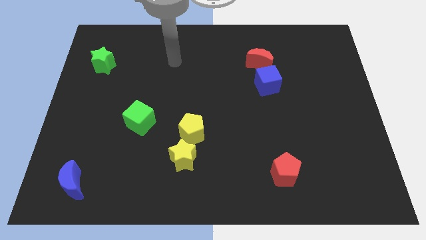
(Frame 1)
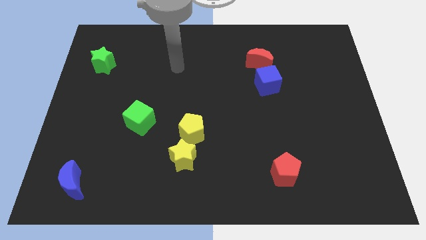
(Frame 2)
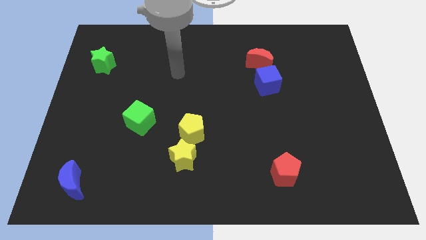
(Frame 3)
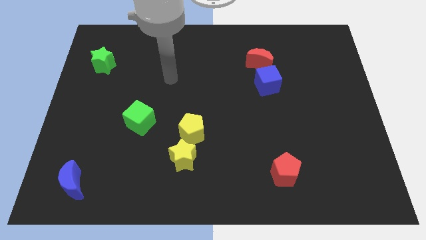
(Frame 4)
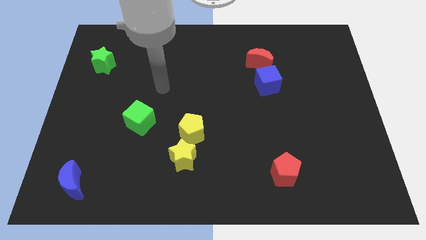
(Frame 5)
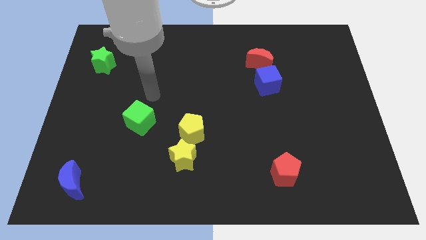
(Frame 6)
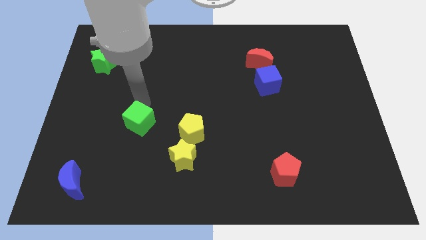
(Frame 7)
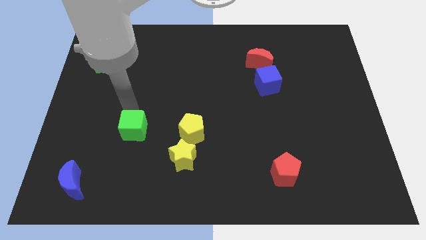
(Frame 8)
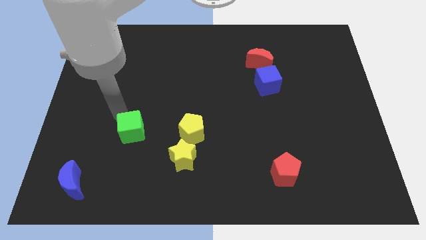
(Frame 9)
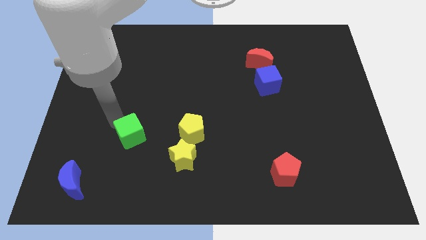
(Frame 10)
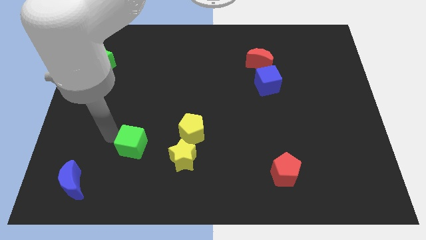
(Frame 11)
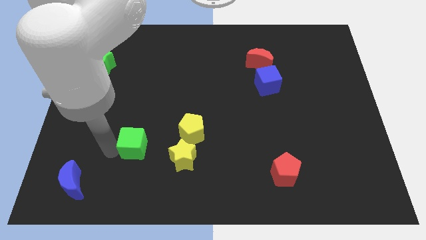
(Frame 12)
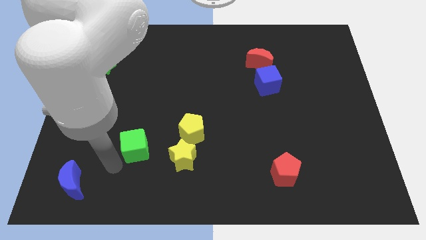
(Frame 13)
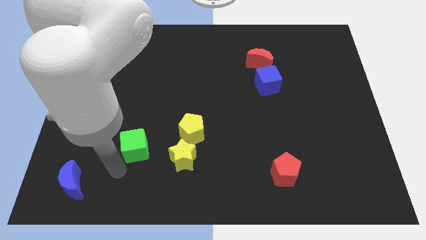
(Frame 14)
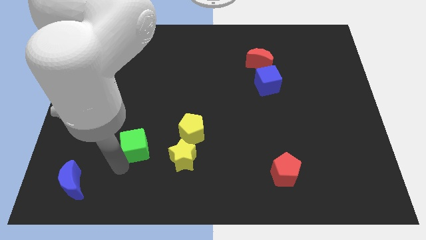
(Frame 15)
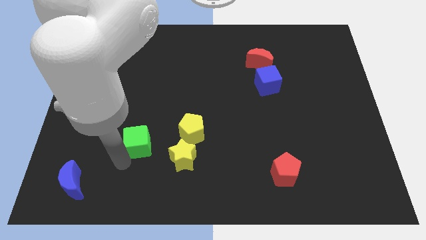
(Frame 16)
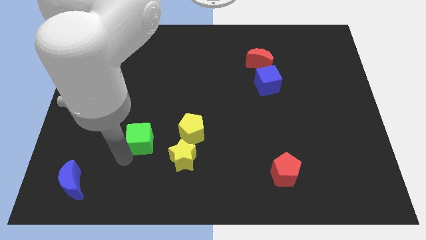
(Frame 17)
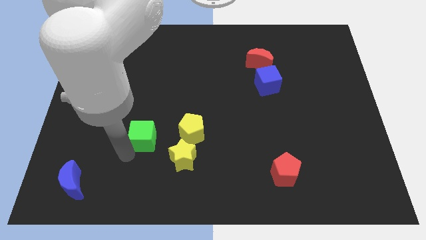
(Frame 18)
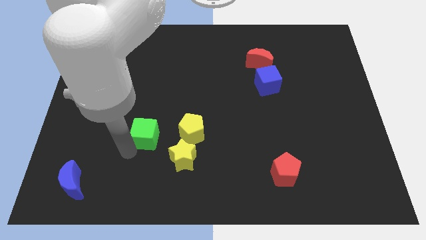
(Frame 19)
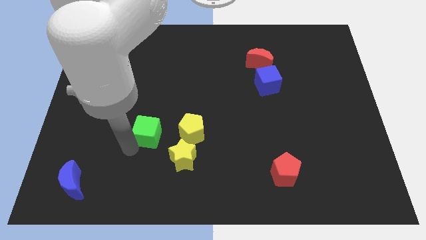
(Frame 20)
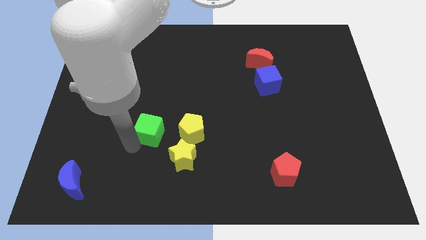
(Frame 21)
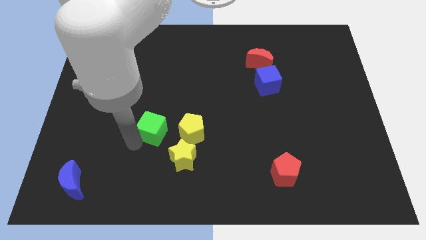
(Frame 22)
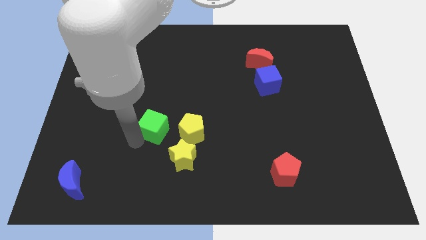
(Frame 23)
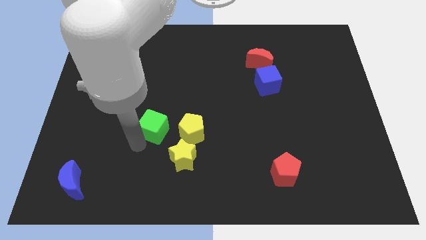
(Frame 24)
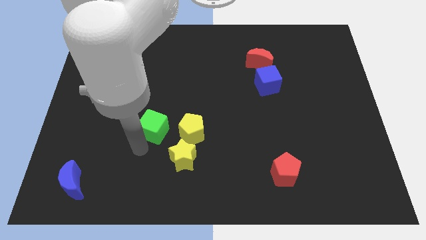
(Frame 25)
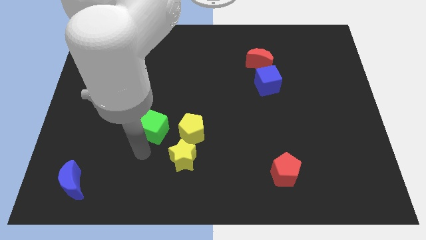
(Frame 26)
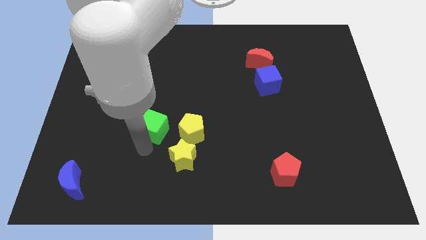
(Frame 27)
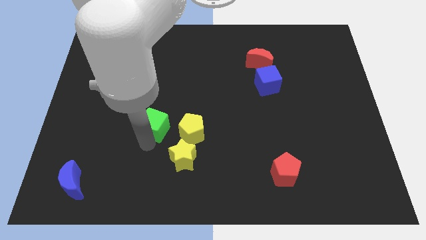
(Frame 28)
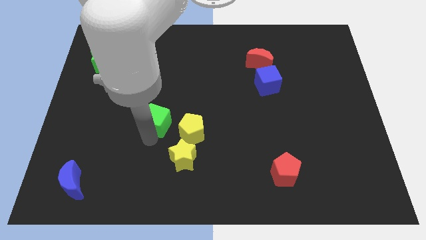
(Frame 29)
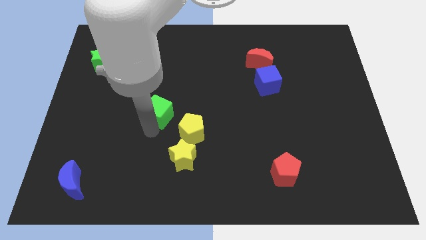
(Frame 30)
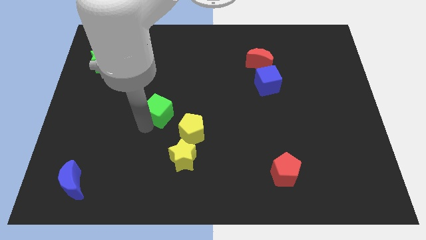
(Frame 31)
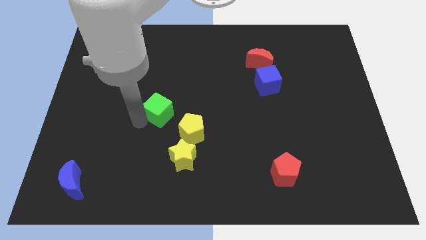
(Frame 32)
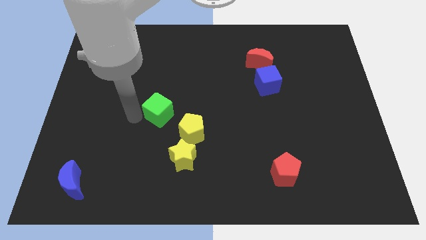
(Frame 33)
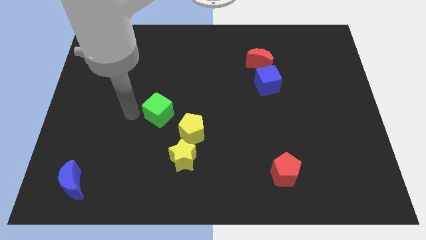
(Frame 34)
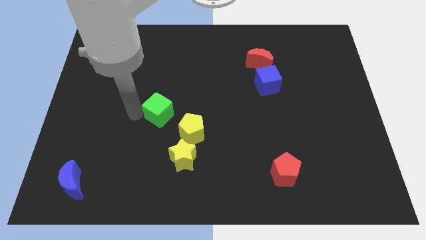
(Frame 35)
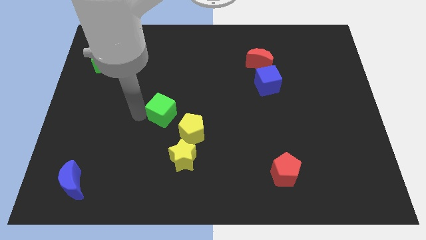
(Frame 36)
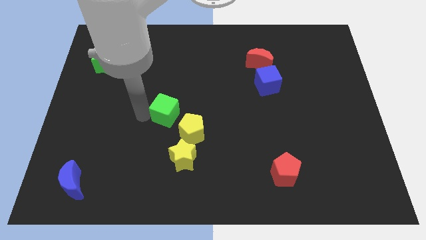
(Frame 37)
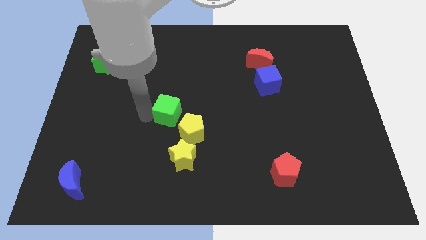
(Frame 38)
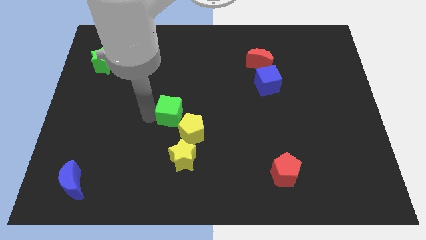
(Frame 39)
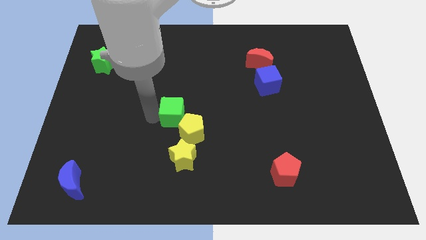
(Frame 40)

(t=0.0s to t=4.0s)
slide the green cube a little right

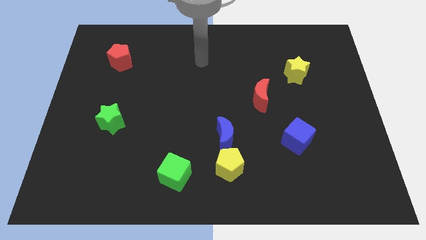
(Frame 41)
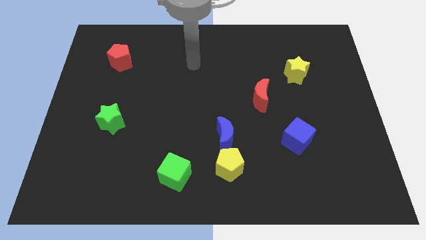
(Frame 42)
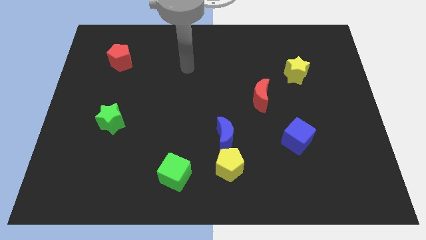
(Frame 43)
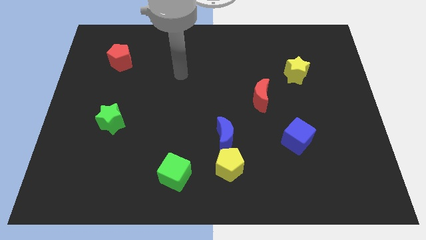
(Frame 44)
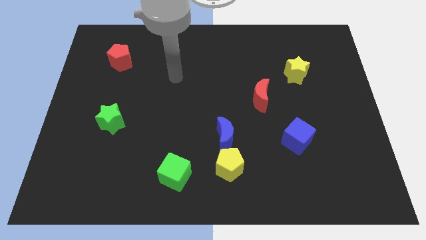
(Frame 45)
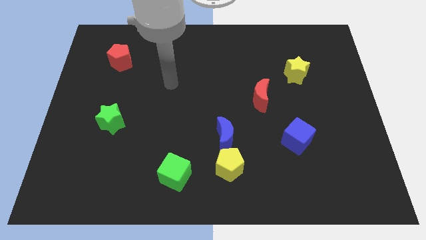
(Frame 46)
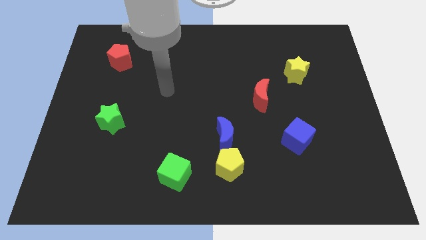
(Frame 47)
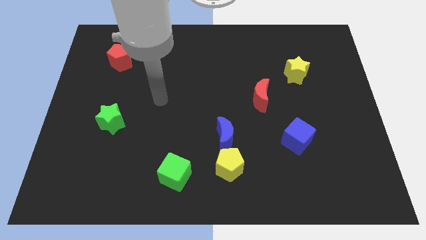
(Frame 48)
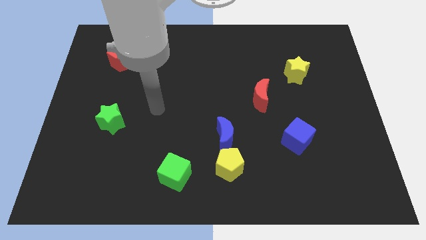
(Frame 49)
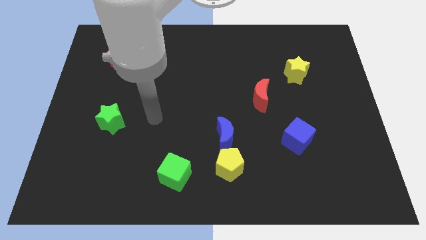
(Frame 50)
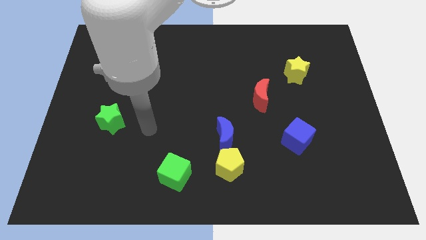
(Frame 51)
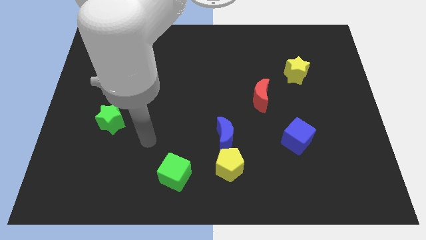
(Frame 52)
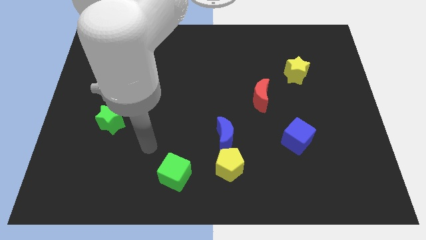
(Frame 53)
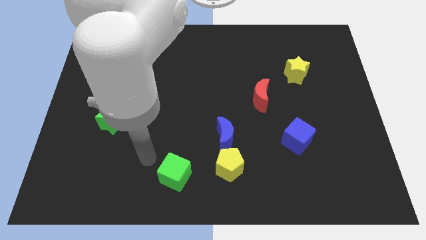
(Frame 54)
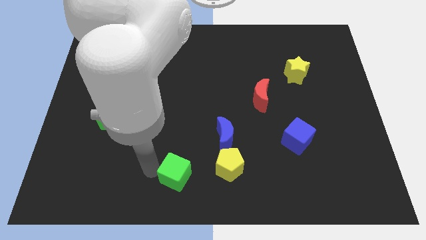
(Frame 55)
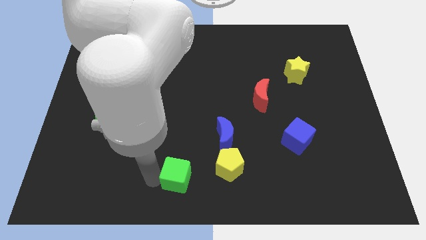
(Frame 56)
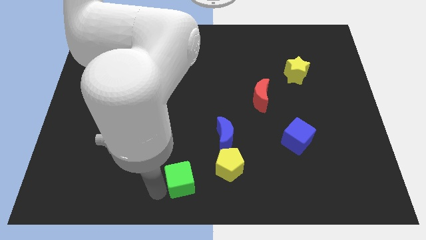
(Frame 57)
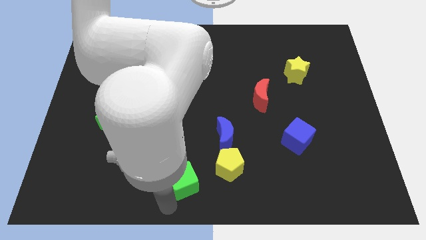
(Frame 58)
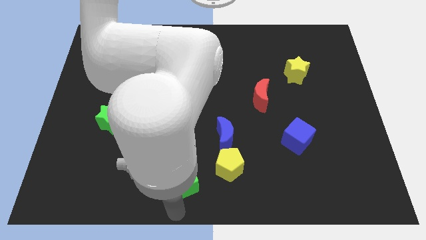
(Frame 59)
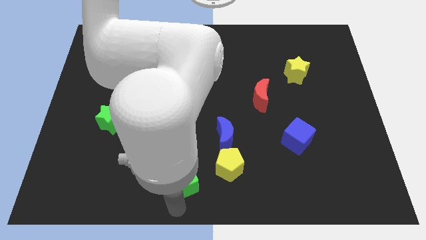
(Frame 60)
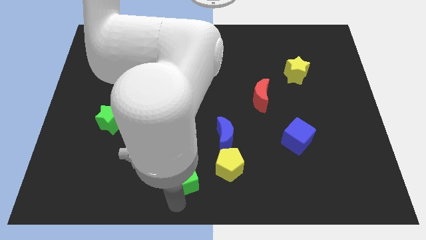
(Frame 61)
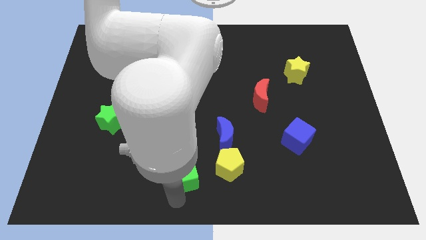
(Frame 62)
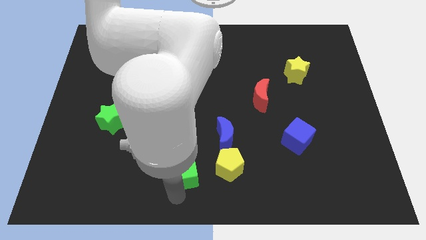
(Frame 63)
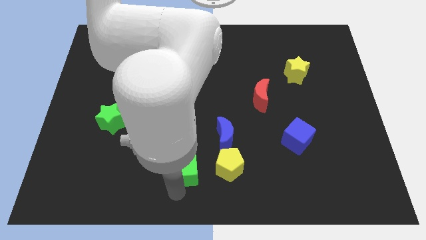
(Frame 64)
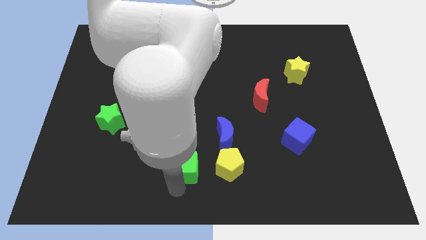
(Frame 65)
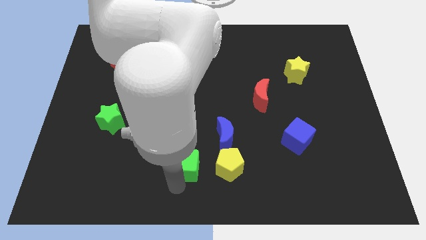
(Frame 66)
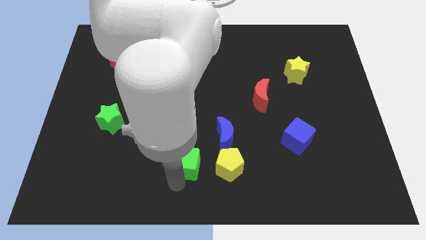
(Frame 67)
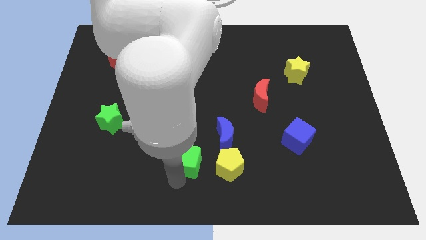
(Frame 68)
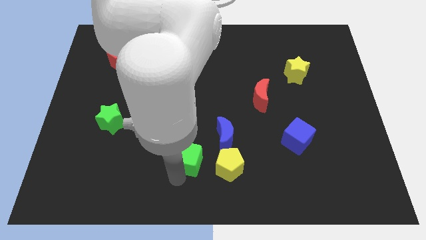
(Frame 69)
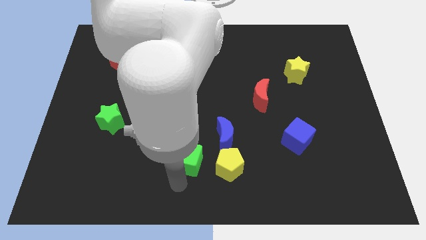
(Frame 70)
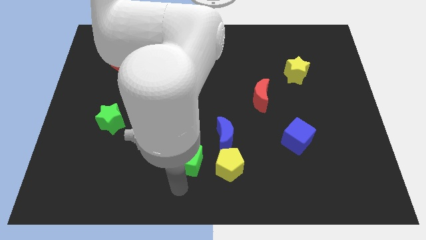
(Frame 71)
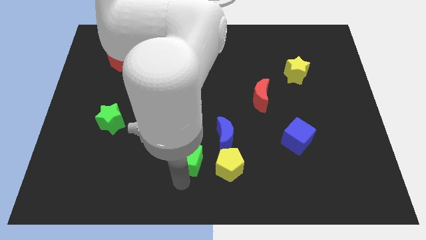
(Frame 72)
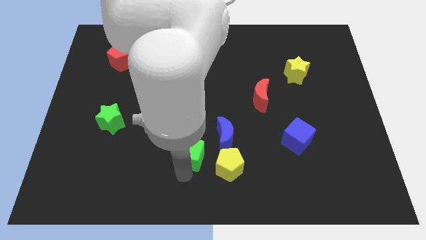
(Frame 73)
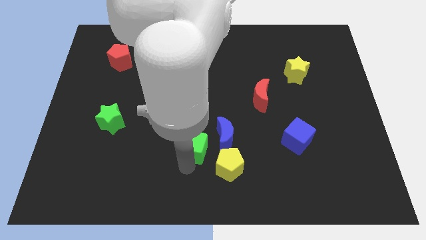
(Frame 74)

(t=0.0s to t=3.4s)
push the green cube a little bit upwards and then to the right

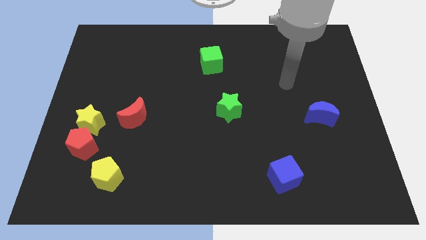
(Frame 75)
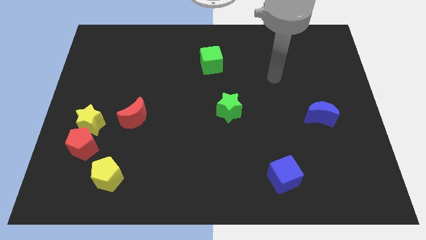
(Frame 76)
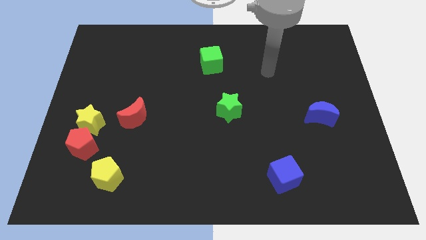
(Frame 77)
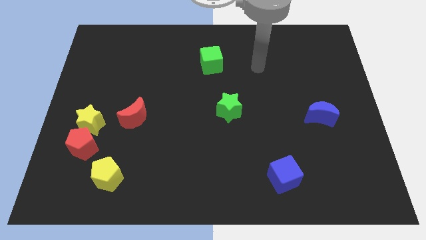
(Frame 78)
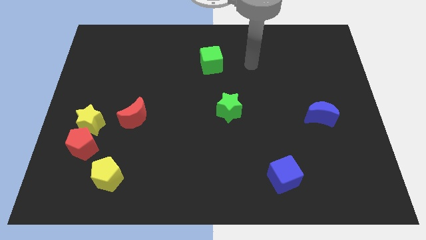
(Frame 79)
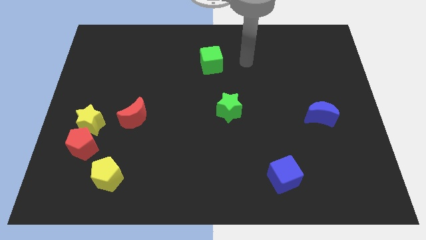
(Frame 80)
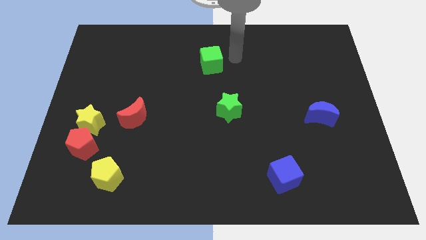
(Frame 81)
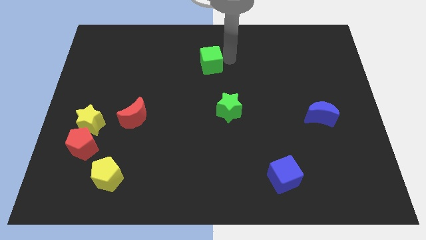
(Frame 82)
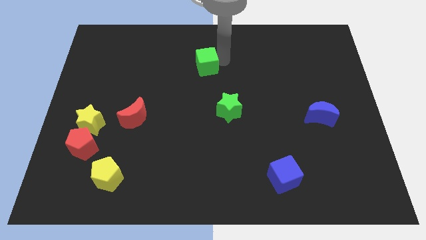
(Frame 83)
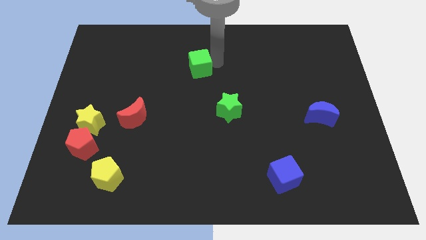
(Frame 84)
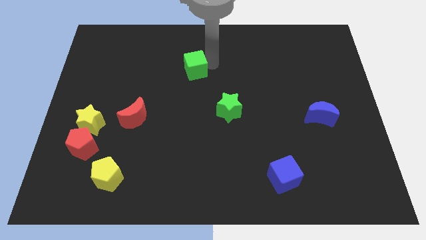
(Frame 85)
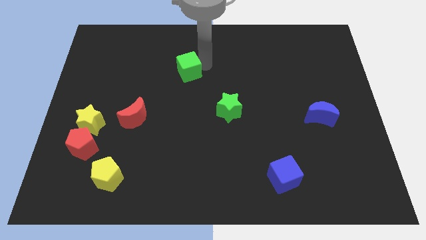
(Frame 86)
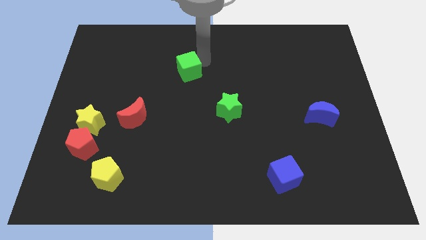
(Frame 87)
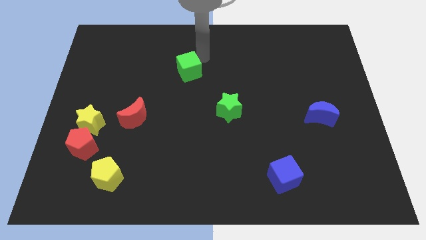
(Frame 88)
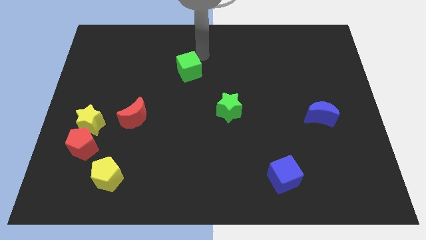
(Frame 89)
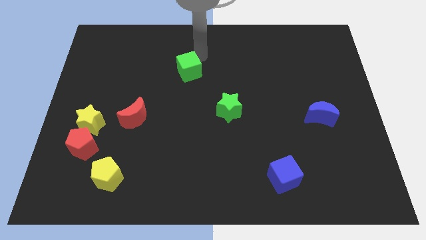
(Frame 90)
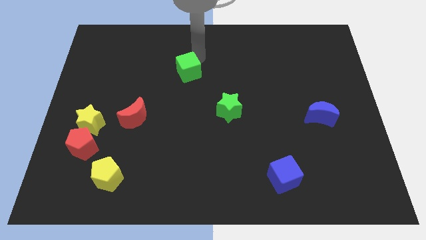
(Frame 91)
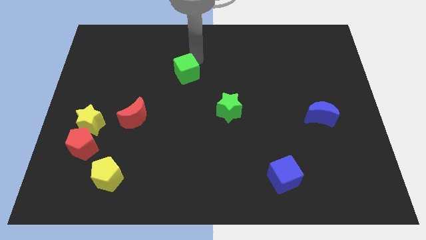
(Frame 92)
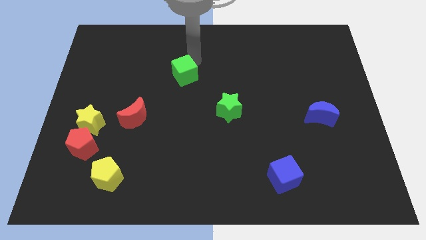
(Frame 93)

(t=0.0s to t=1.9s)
push the green cube downwards and then left a little
